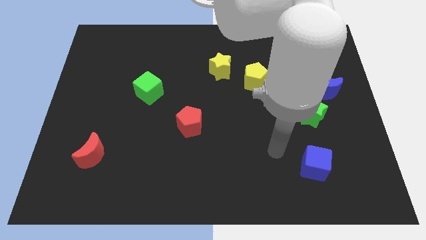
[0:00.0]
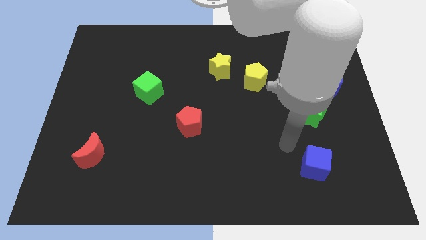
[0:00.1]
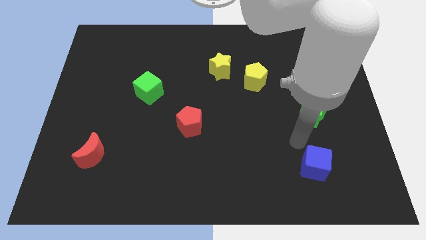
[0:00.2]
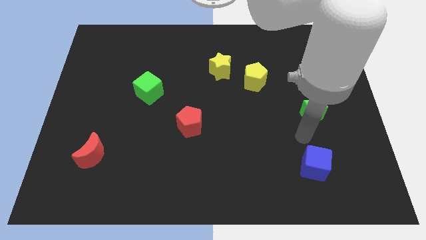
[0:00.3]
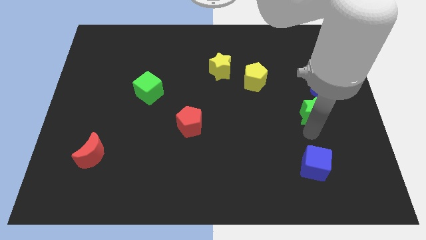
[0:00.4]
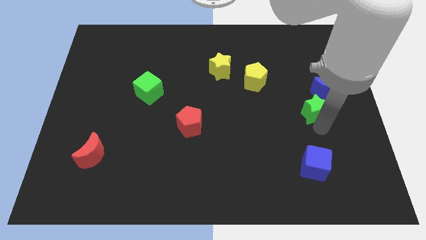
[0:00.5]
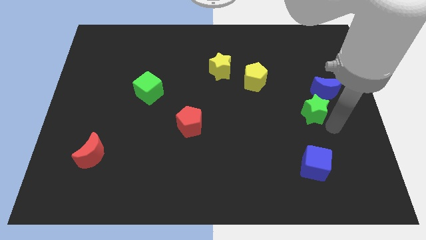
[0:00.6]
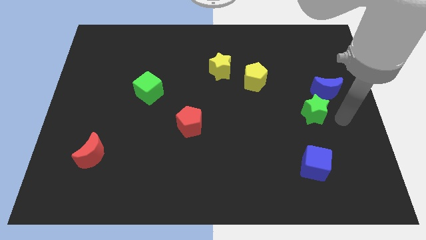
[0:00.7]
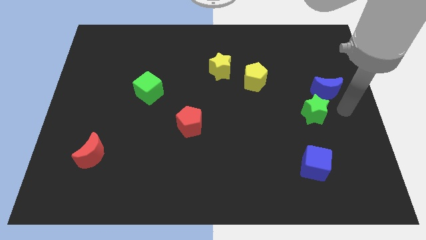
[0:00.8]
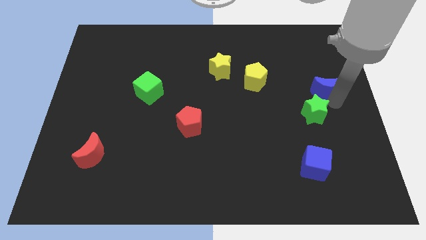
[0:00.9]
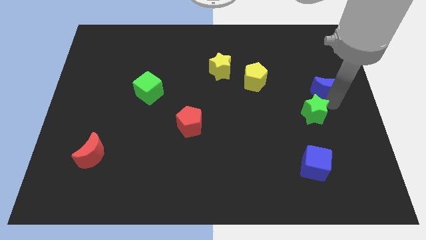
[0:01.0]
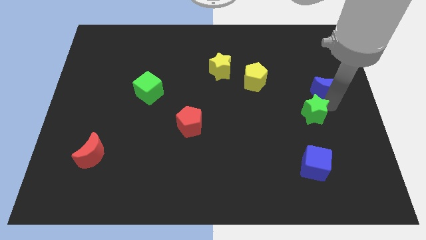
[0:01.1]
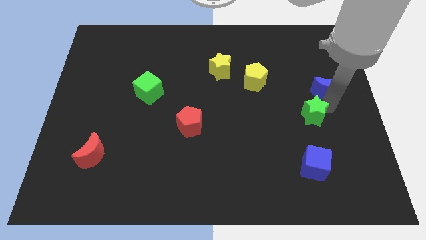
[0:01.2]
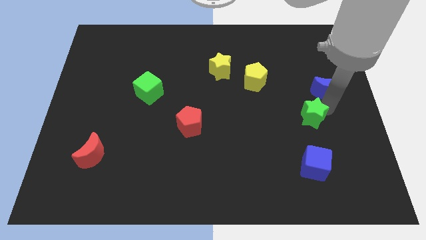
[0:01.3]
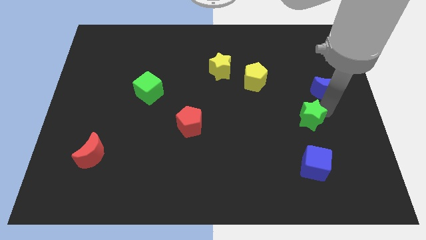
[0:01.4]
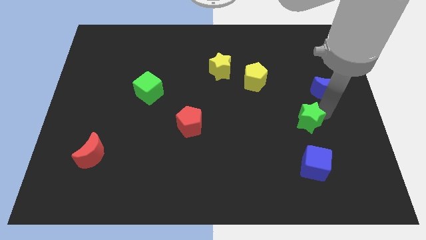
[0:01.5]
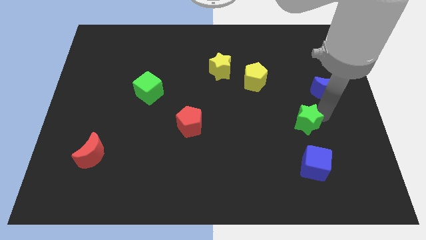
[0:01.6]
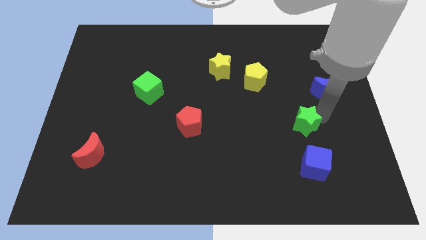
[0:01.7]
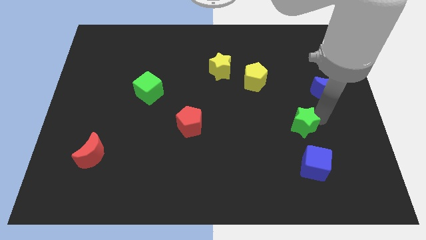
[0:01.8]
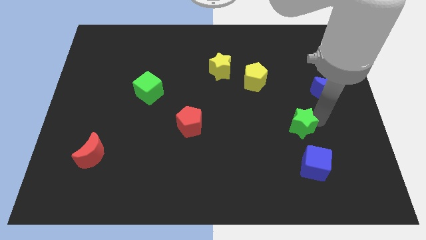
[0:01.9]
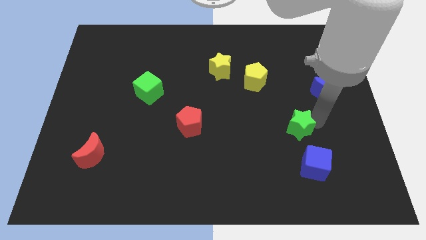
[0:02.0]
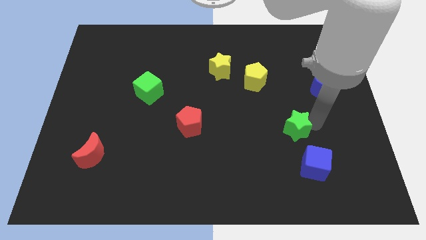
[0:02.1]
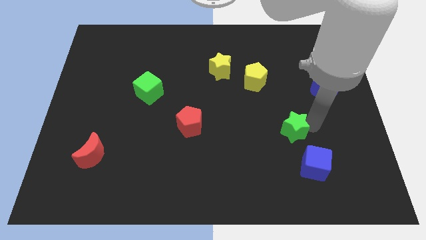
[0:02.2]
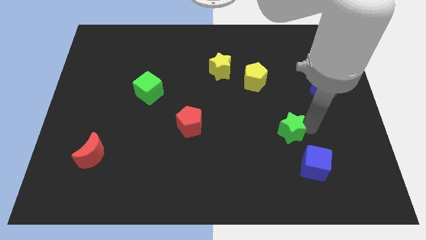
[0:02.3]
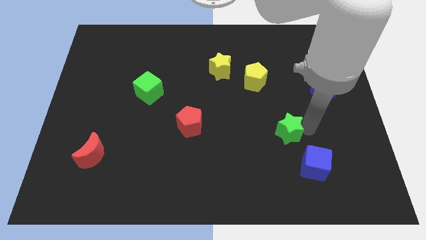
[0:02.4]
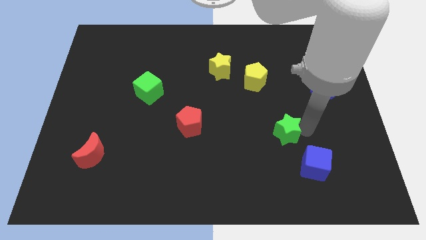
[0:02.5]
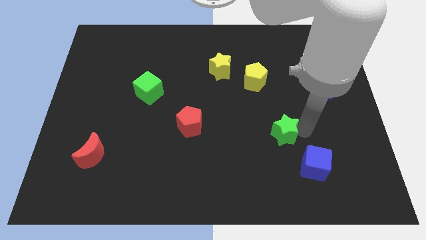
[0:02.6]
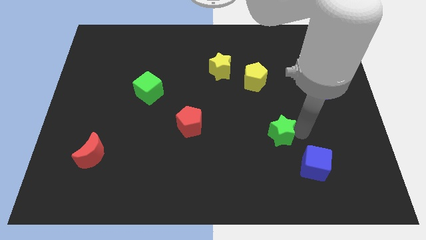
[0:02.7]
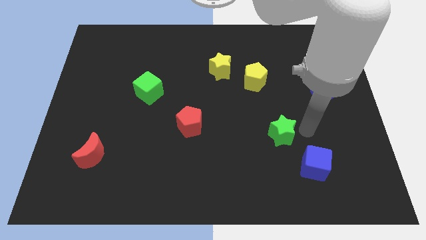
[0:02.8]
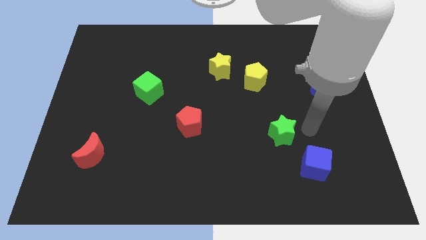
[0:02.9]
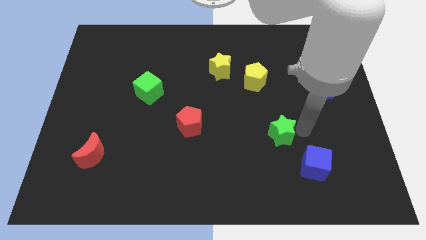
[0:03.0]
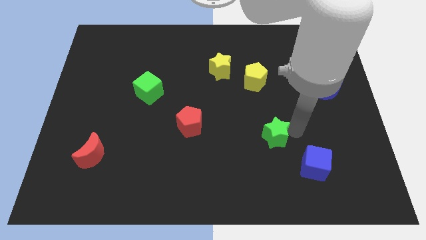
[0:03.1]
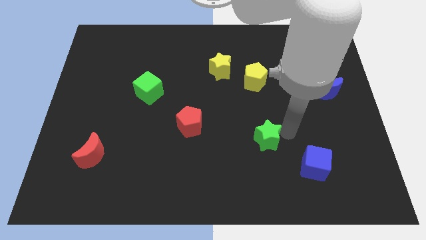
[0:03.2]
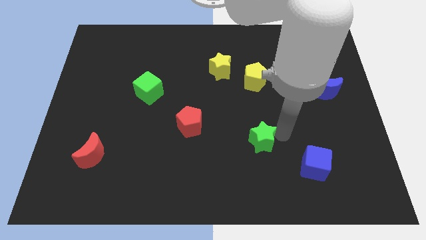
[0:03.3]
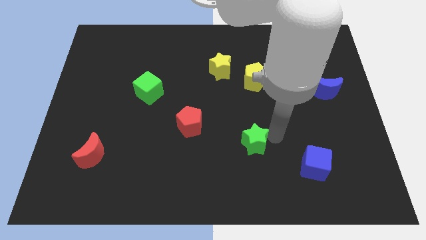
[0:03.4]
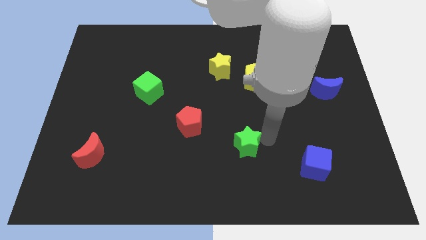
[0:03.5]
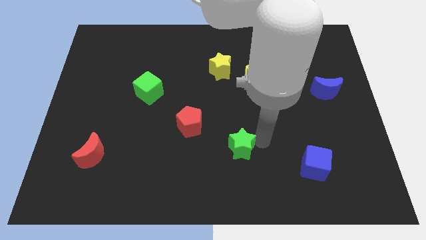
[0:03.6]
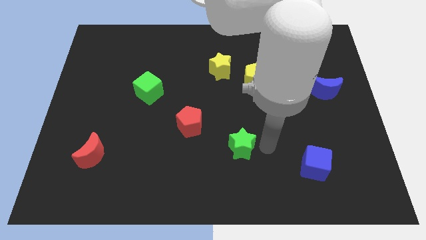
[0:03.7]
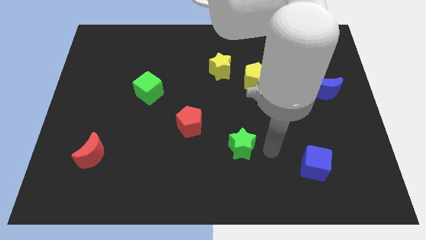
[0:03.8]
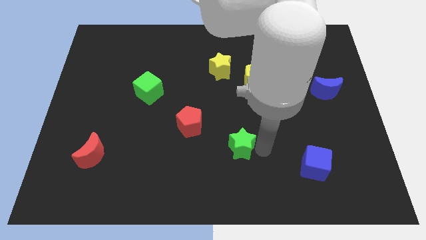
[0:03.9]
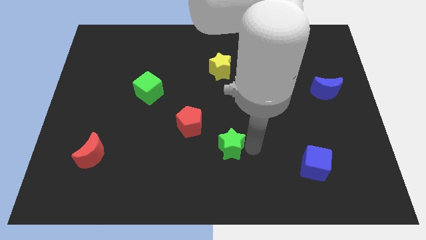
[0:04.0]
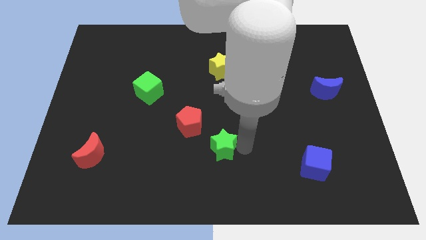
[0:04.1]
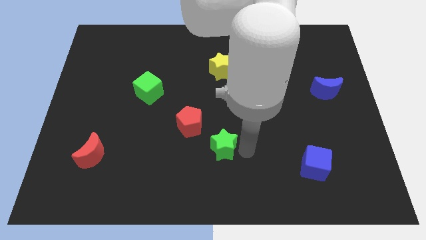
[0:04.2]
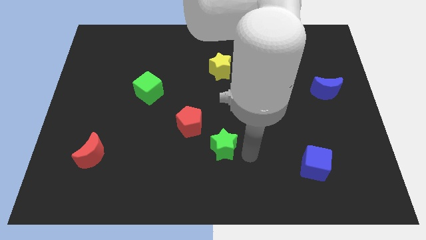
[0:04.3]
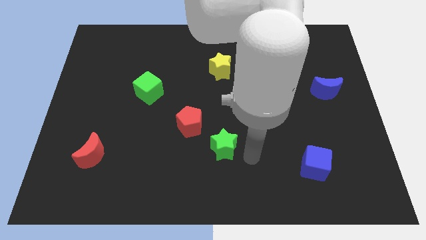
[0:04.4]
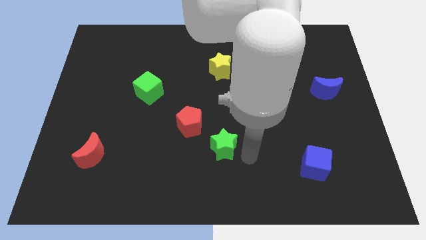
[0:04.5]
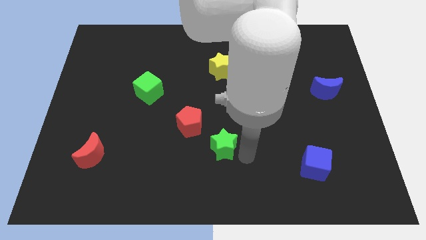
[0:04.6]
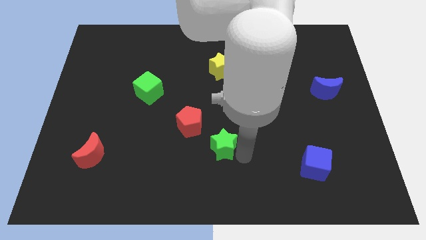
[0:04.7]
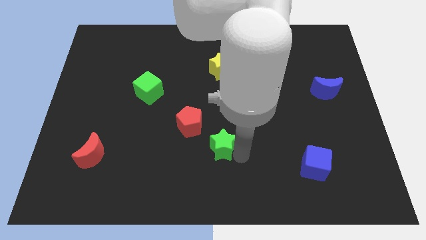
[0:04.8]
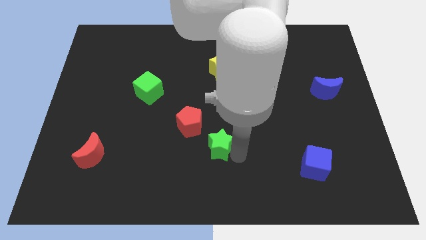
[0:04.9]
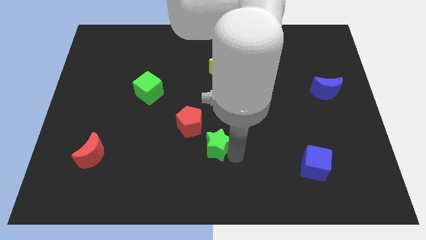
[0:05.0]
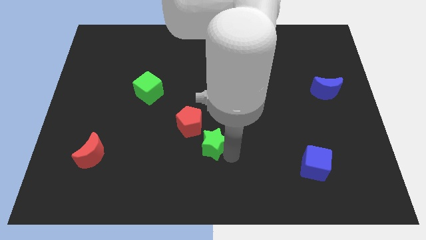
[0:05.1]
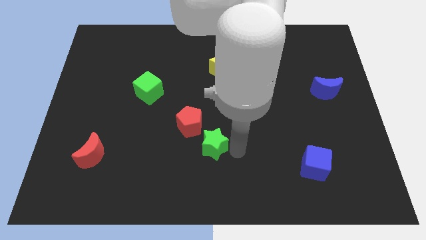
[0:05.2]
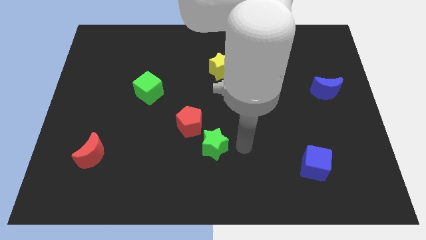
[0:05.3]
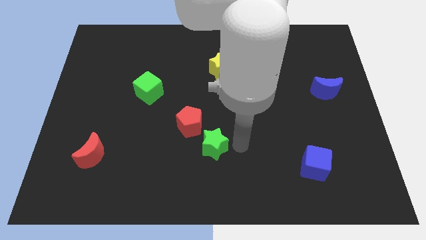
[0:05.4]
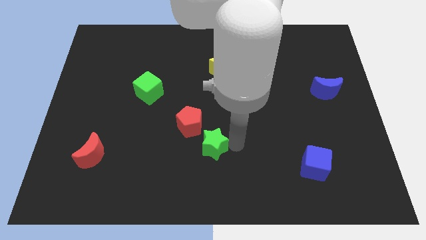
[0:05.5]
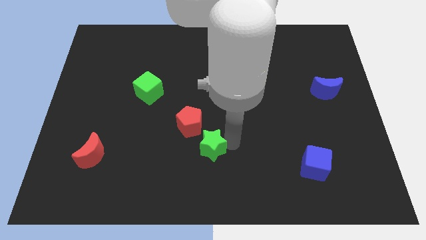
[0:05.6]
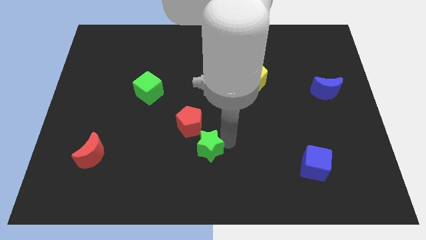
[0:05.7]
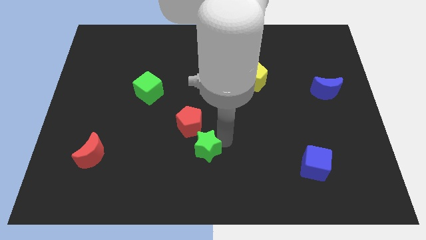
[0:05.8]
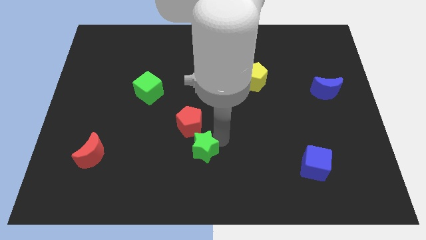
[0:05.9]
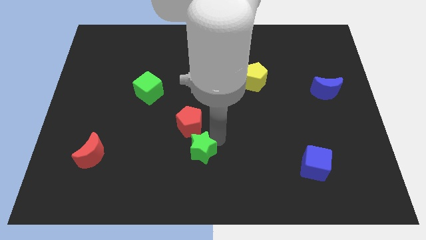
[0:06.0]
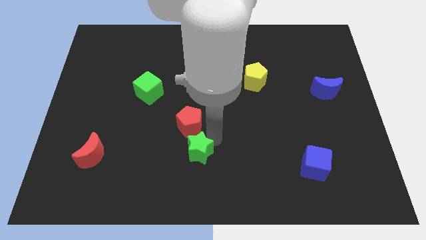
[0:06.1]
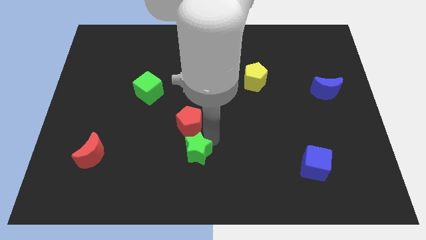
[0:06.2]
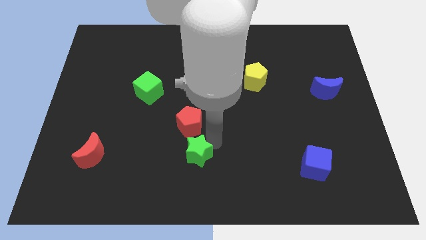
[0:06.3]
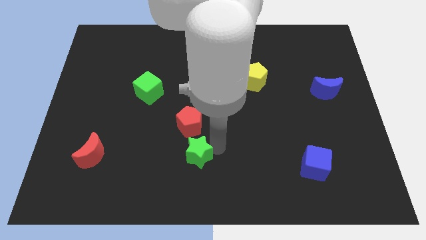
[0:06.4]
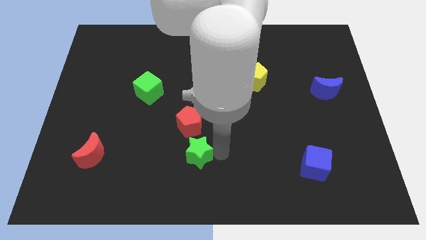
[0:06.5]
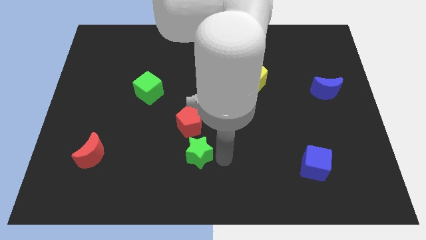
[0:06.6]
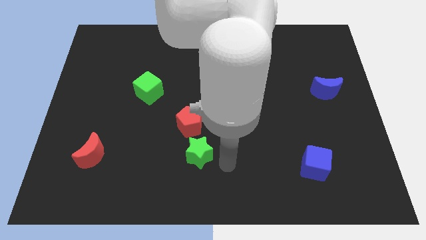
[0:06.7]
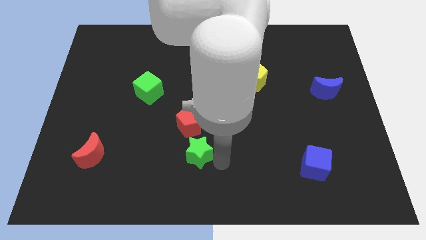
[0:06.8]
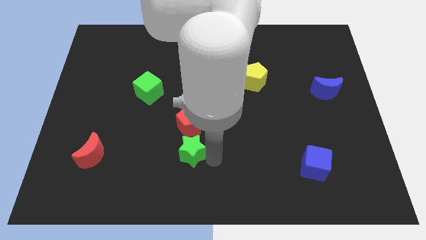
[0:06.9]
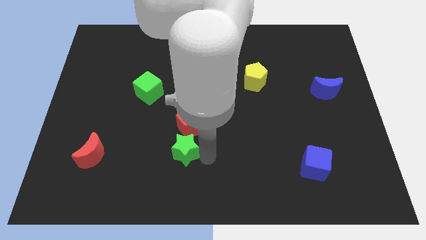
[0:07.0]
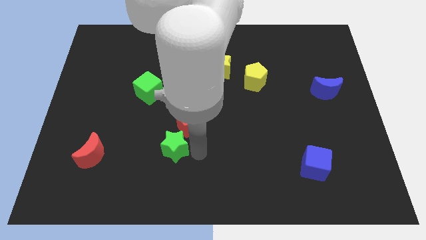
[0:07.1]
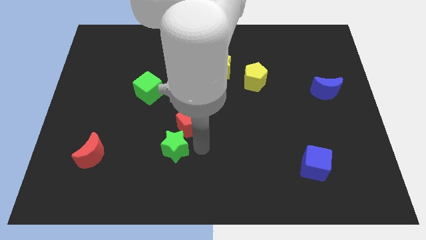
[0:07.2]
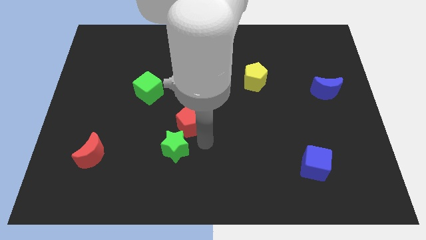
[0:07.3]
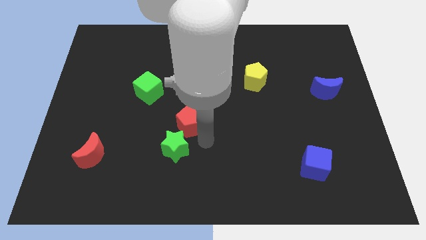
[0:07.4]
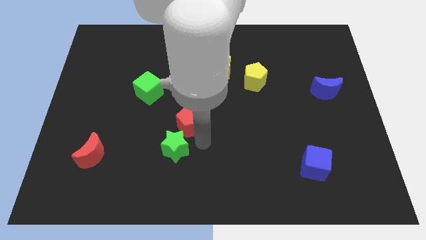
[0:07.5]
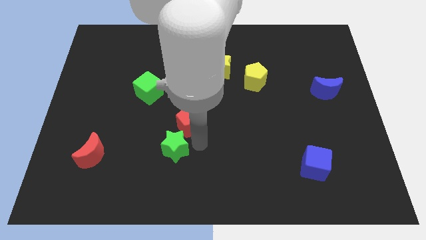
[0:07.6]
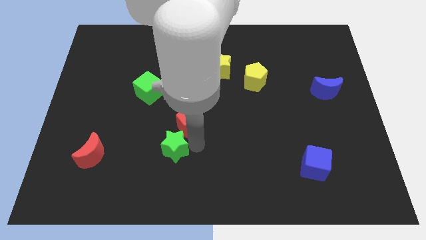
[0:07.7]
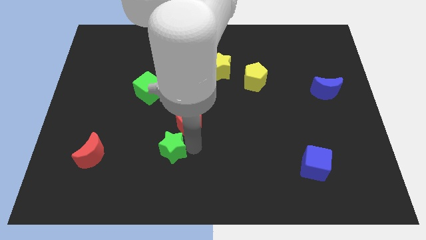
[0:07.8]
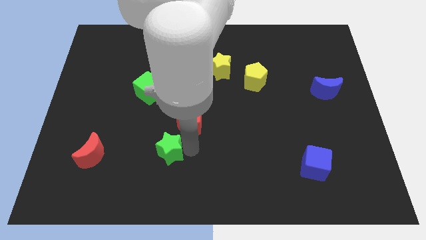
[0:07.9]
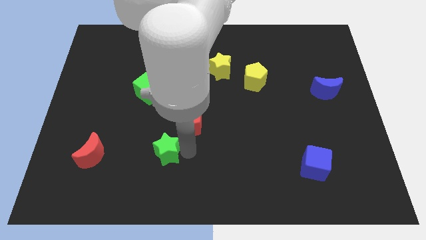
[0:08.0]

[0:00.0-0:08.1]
push the green star to the right side of the red moon
